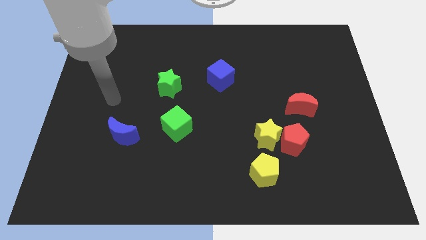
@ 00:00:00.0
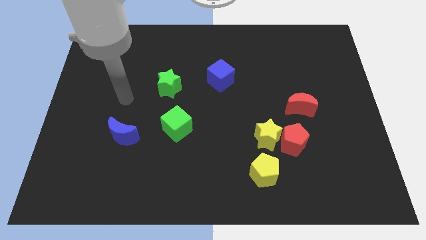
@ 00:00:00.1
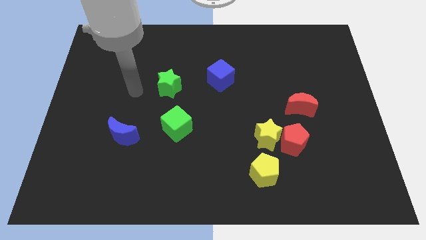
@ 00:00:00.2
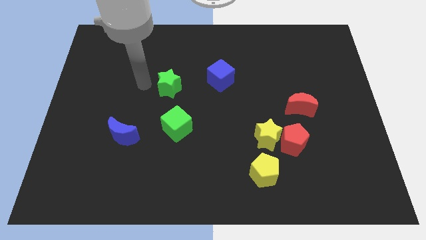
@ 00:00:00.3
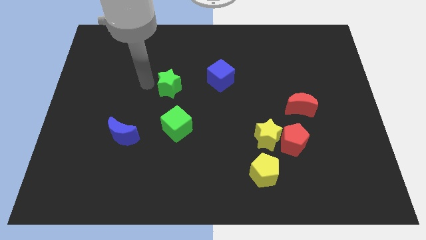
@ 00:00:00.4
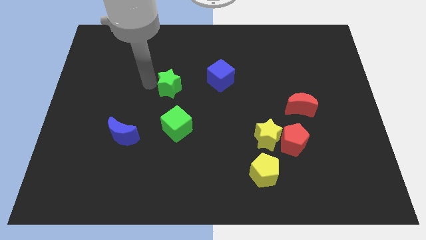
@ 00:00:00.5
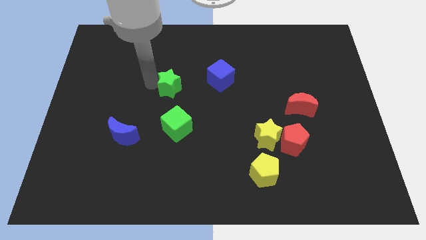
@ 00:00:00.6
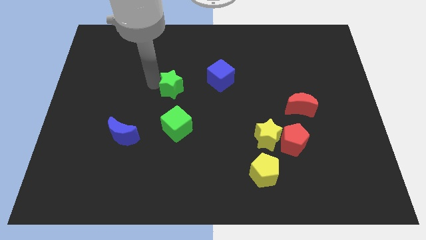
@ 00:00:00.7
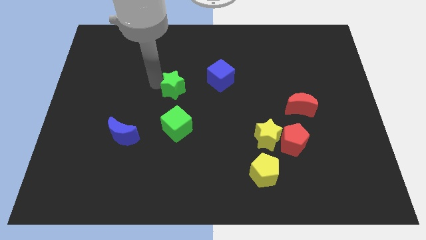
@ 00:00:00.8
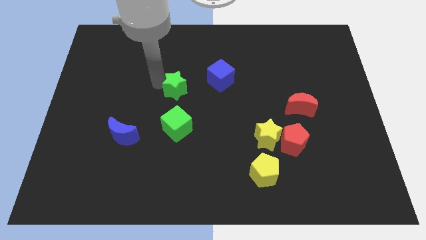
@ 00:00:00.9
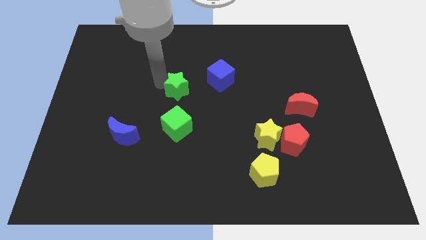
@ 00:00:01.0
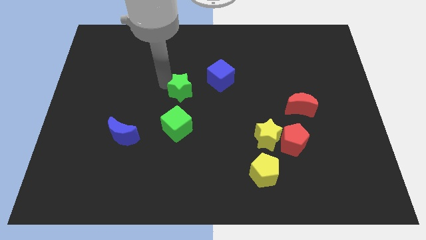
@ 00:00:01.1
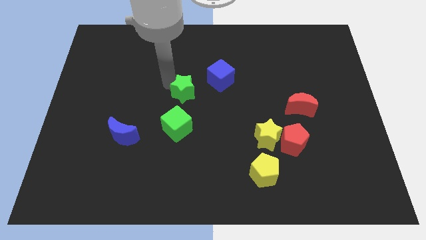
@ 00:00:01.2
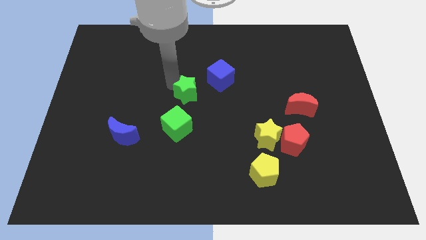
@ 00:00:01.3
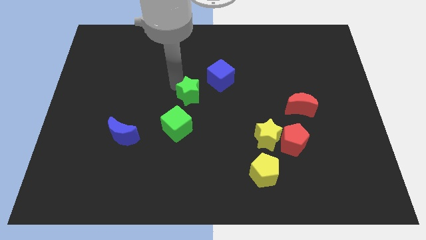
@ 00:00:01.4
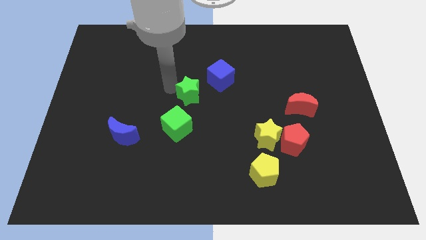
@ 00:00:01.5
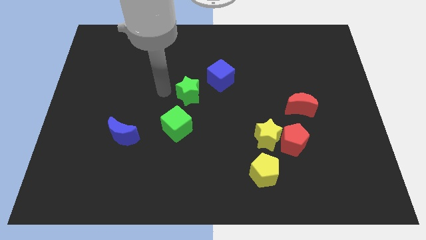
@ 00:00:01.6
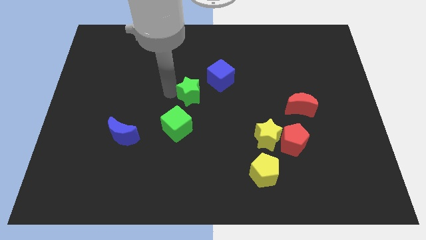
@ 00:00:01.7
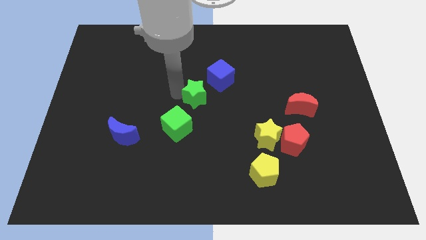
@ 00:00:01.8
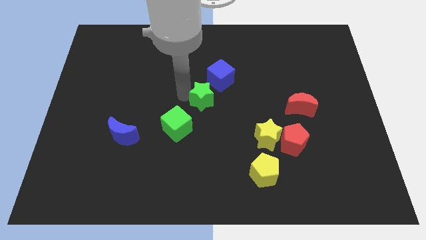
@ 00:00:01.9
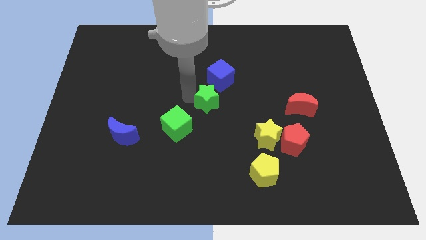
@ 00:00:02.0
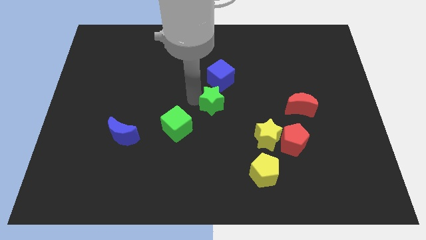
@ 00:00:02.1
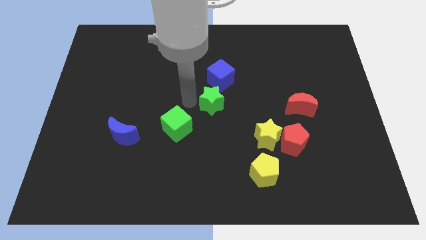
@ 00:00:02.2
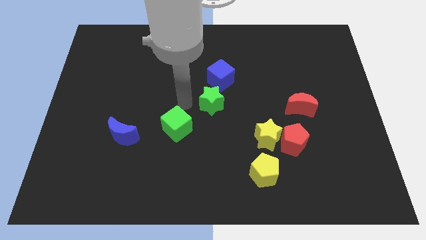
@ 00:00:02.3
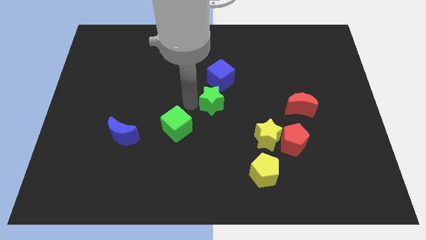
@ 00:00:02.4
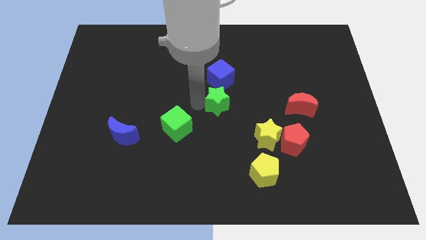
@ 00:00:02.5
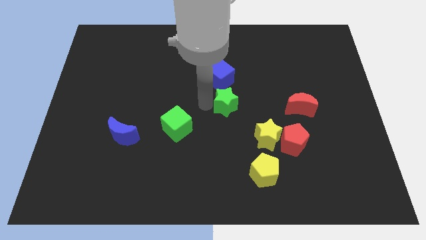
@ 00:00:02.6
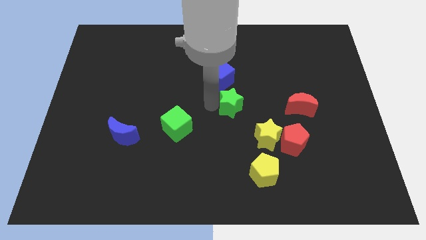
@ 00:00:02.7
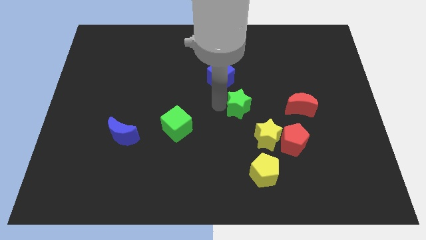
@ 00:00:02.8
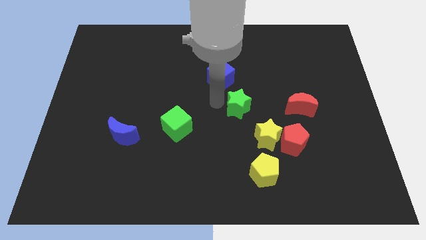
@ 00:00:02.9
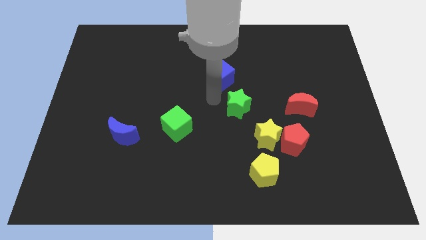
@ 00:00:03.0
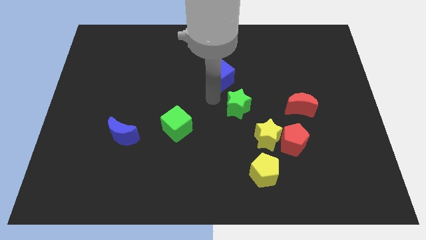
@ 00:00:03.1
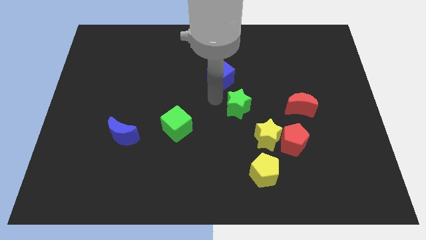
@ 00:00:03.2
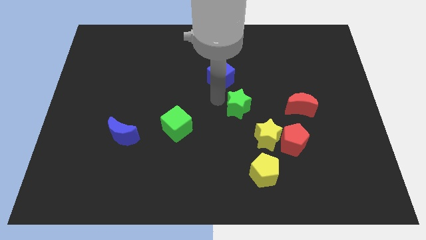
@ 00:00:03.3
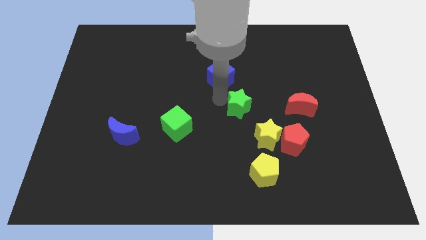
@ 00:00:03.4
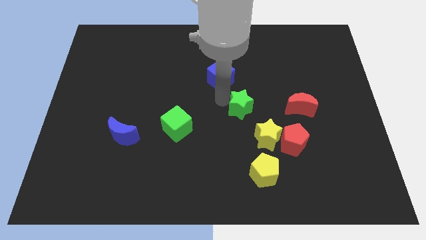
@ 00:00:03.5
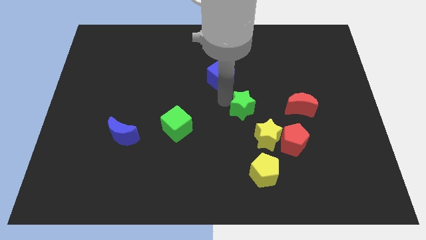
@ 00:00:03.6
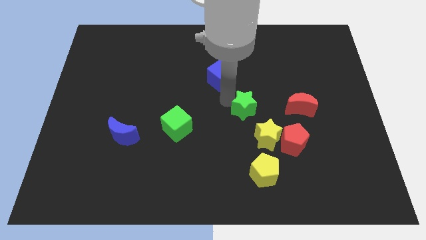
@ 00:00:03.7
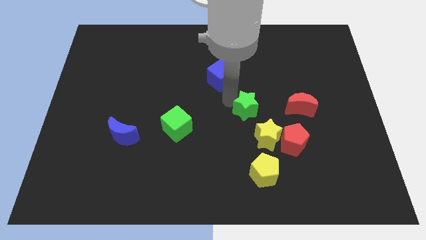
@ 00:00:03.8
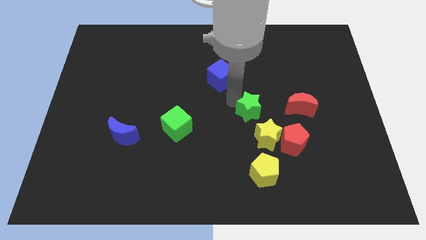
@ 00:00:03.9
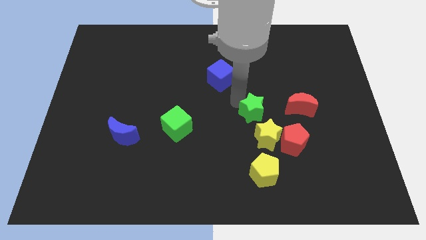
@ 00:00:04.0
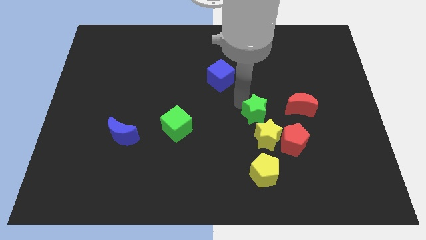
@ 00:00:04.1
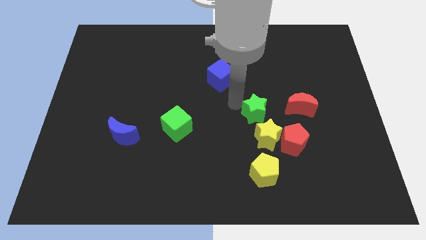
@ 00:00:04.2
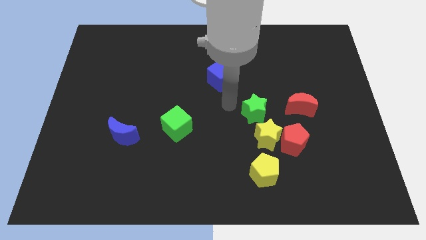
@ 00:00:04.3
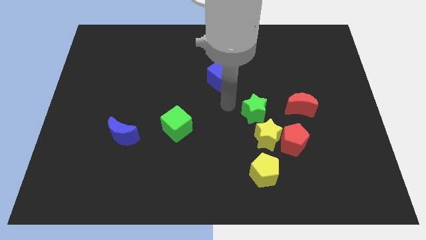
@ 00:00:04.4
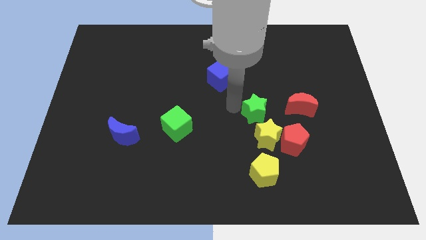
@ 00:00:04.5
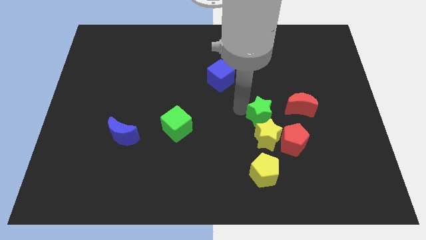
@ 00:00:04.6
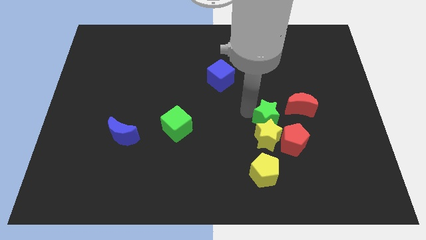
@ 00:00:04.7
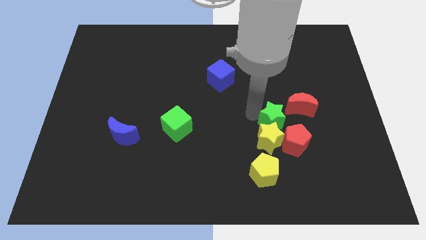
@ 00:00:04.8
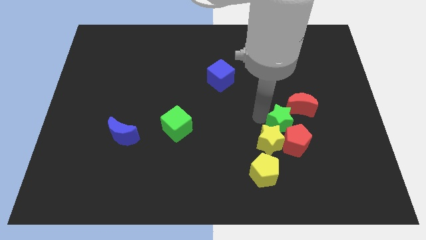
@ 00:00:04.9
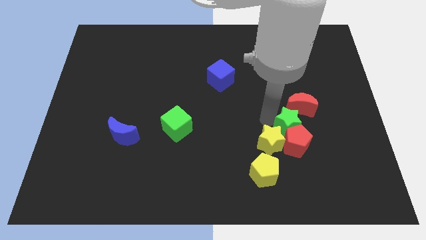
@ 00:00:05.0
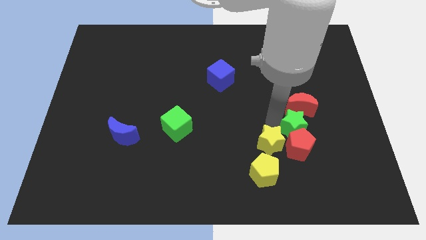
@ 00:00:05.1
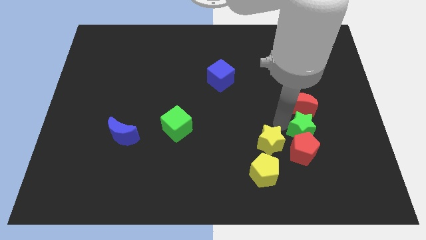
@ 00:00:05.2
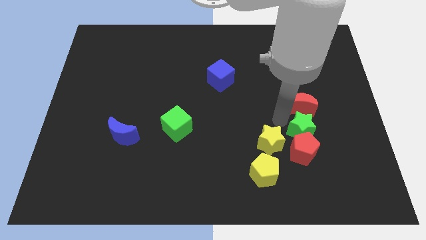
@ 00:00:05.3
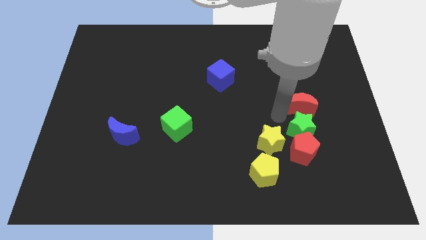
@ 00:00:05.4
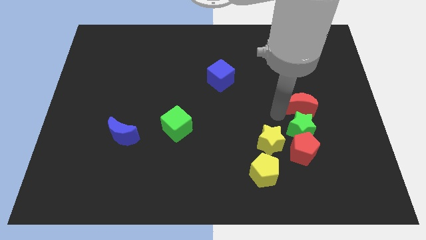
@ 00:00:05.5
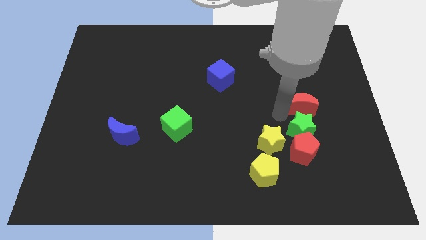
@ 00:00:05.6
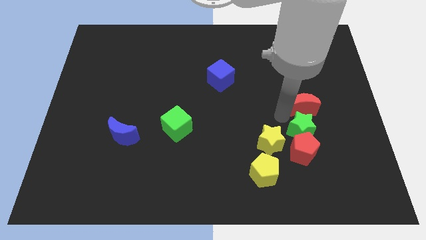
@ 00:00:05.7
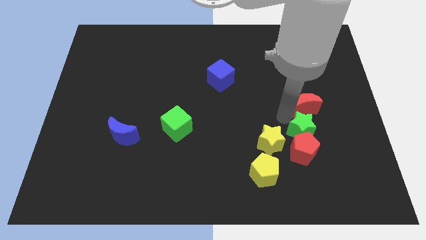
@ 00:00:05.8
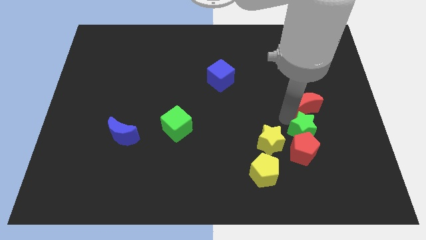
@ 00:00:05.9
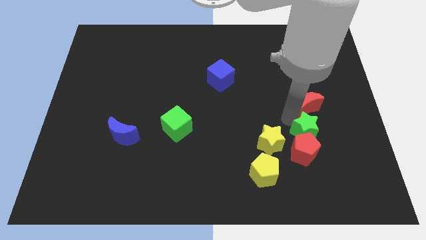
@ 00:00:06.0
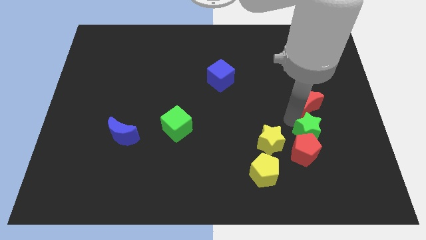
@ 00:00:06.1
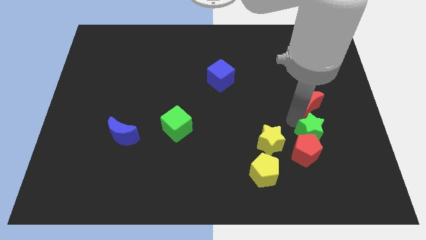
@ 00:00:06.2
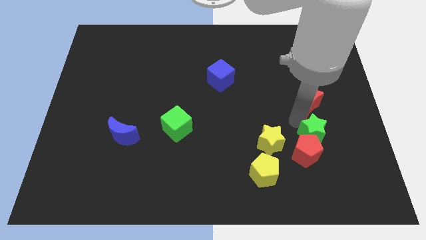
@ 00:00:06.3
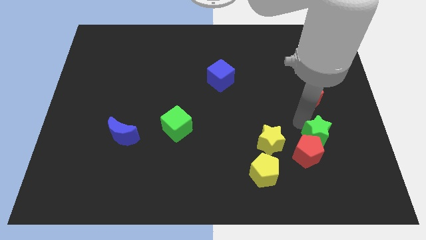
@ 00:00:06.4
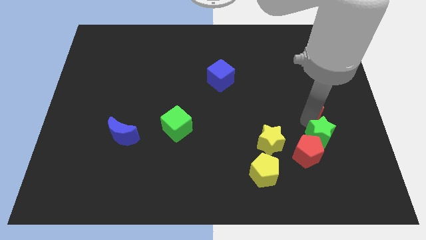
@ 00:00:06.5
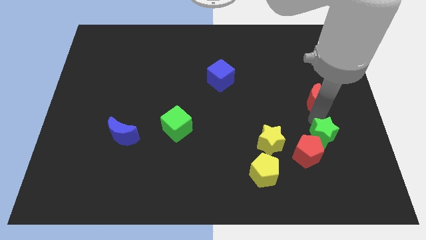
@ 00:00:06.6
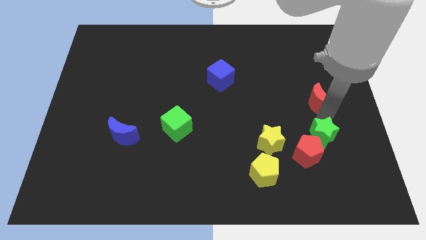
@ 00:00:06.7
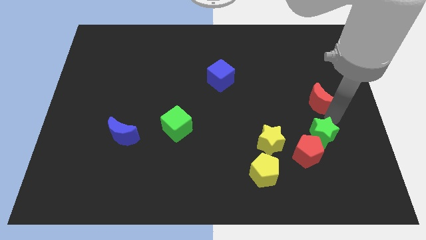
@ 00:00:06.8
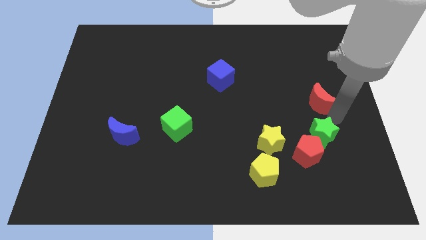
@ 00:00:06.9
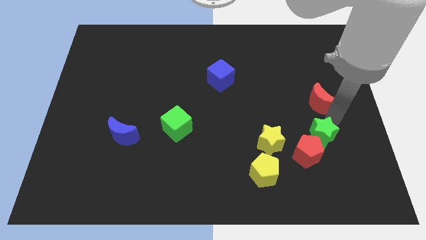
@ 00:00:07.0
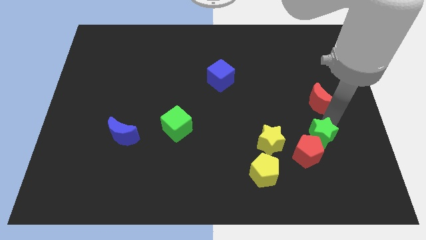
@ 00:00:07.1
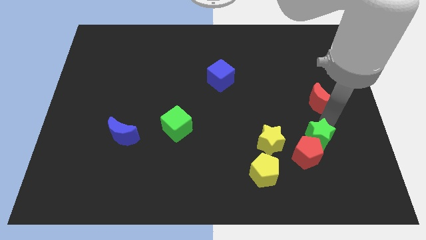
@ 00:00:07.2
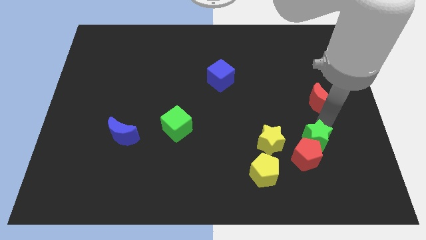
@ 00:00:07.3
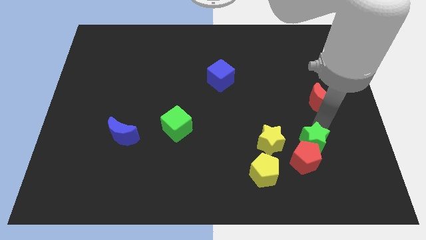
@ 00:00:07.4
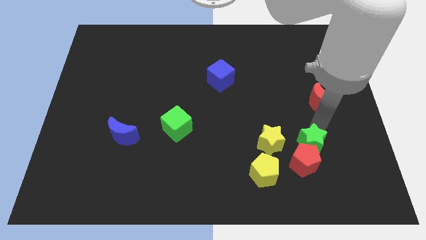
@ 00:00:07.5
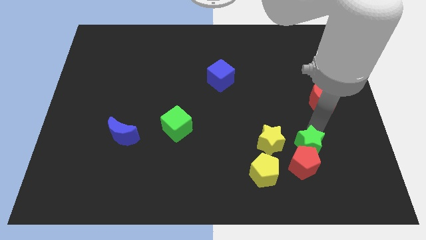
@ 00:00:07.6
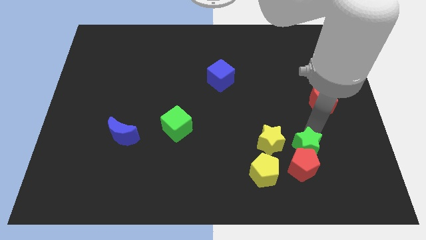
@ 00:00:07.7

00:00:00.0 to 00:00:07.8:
put the green star to the bottom right of the yellow star
